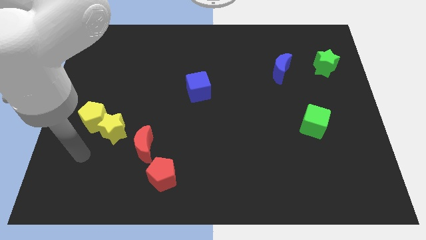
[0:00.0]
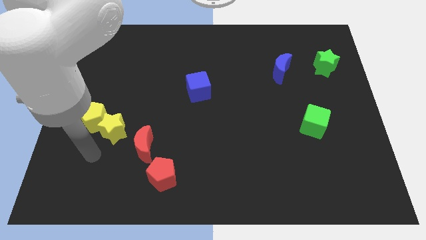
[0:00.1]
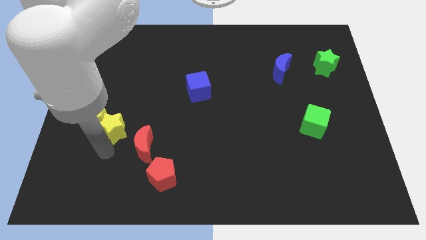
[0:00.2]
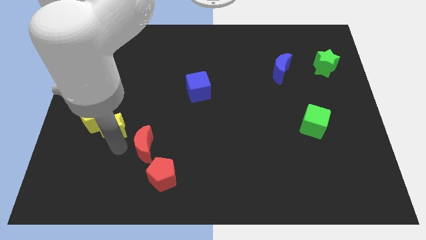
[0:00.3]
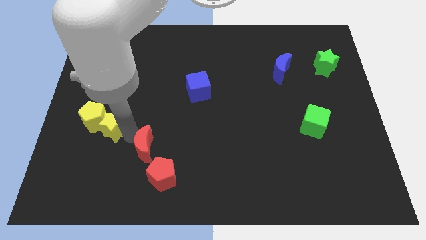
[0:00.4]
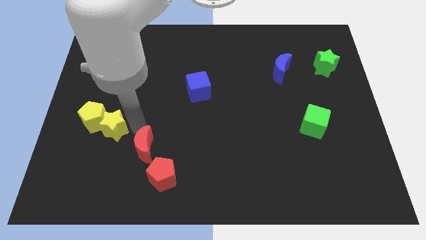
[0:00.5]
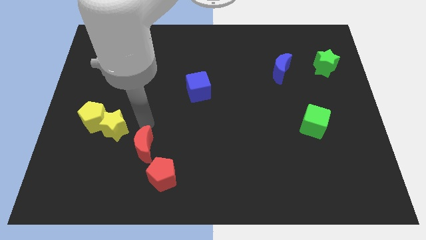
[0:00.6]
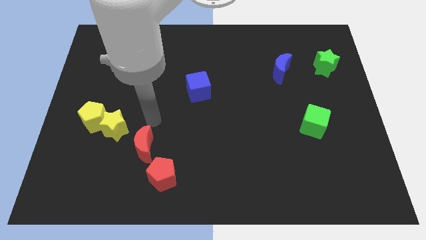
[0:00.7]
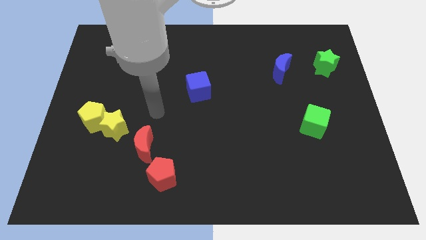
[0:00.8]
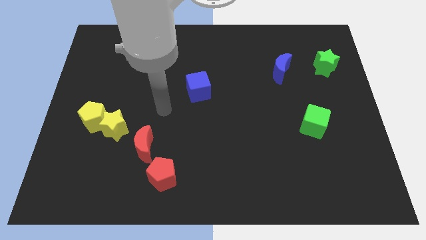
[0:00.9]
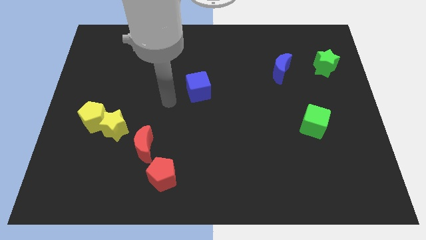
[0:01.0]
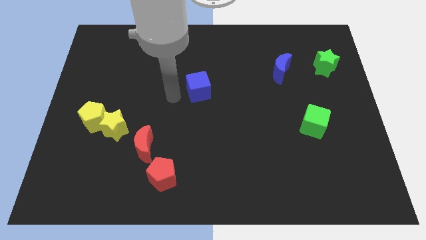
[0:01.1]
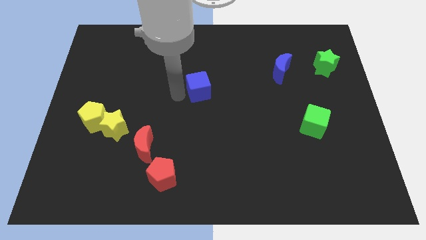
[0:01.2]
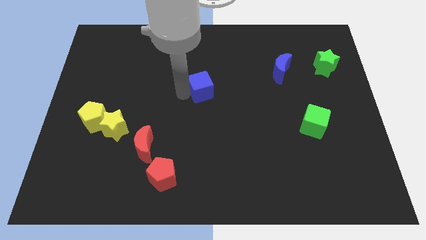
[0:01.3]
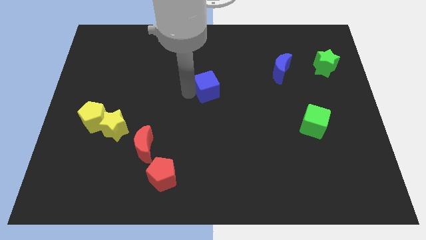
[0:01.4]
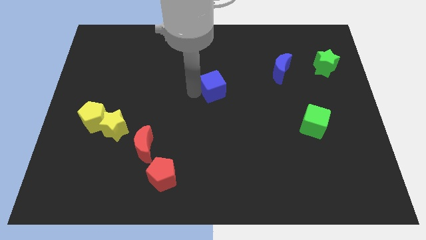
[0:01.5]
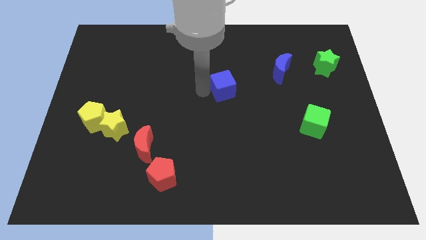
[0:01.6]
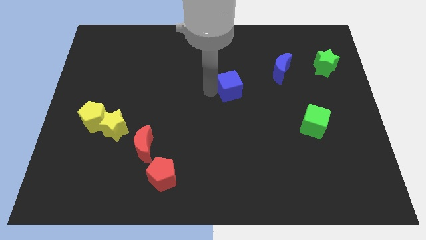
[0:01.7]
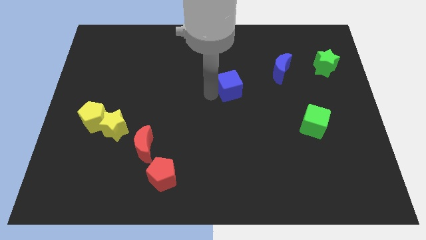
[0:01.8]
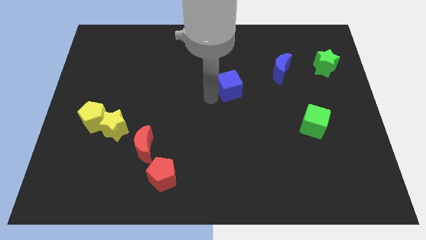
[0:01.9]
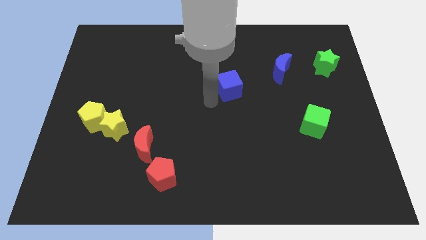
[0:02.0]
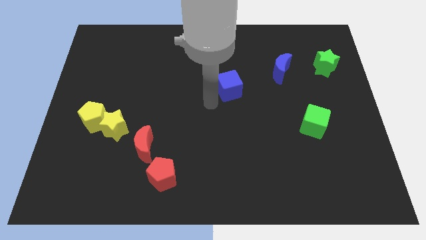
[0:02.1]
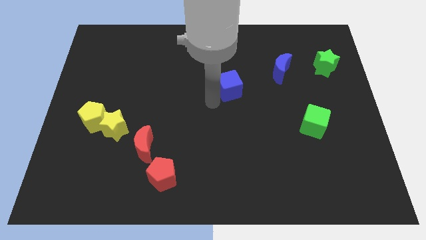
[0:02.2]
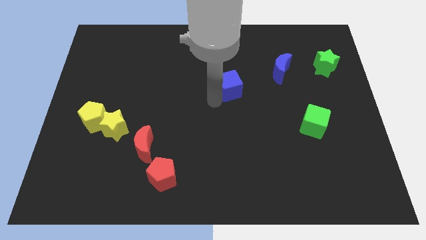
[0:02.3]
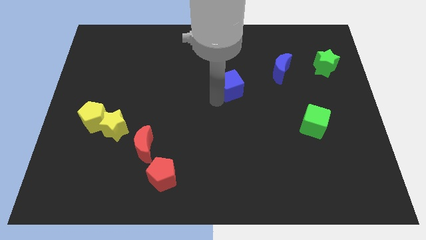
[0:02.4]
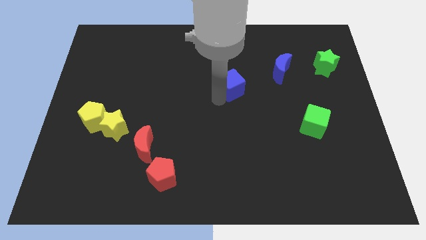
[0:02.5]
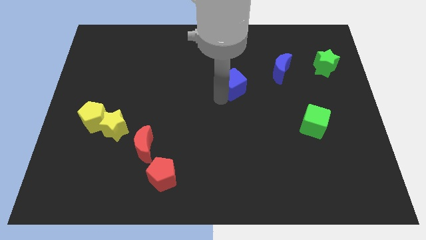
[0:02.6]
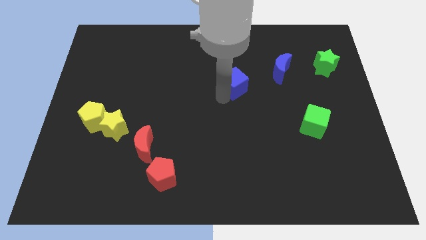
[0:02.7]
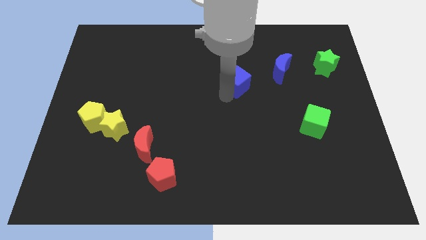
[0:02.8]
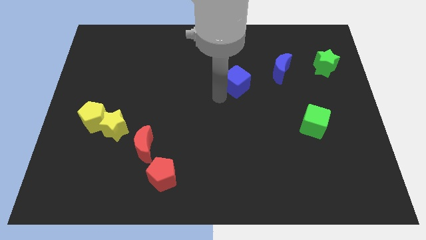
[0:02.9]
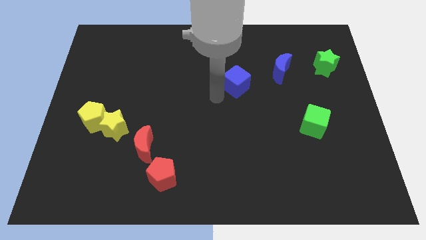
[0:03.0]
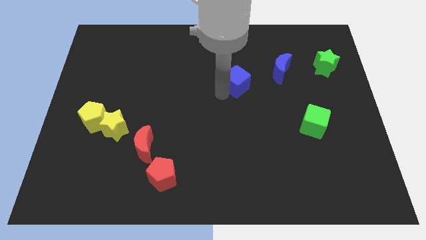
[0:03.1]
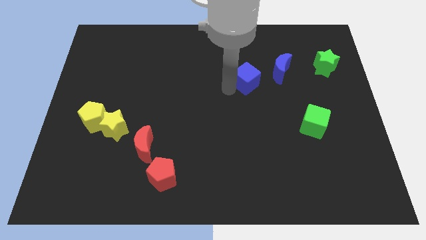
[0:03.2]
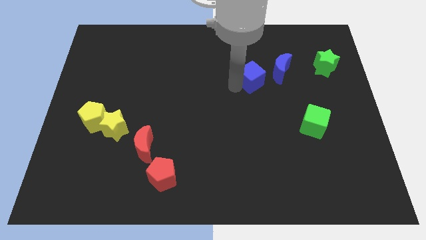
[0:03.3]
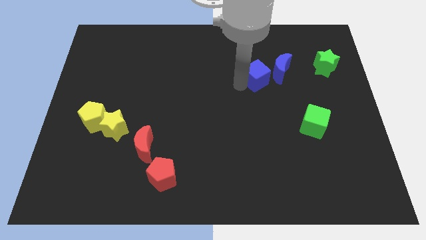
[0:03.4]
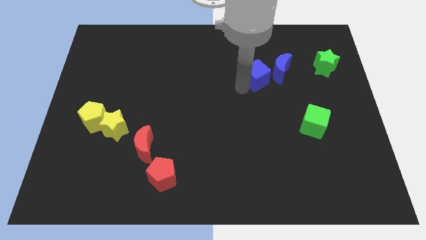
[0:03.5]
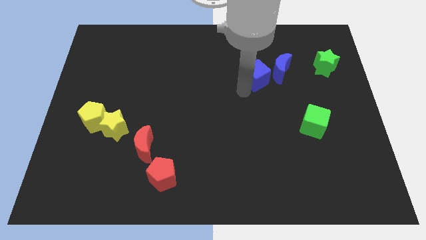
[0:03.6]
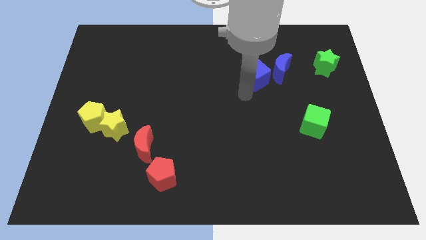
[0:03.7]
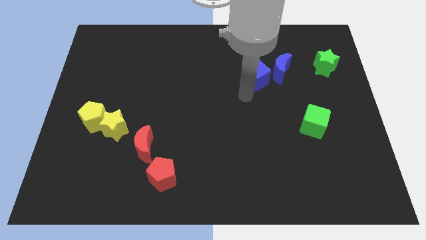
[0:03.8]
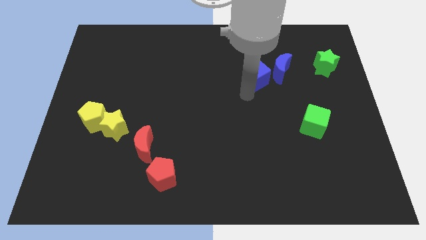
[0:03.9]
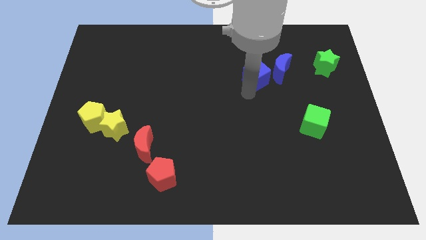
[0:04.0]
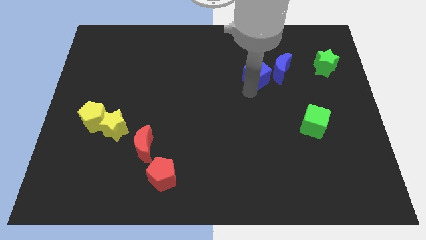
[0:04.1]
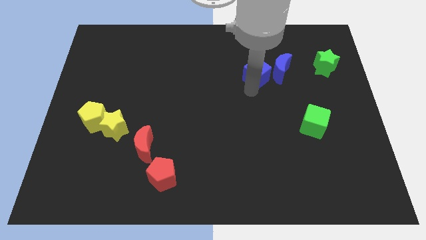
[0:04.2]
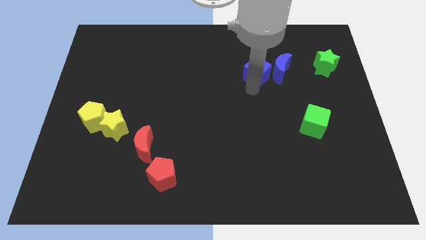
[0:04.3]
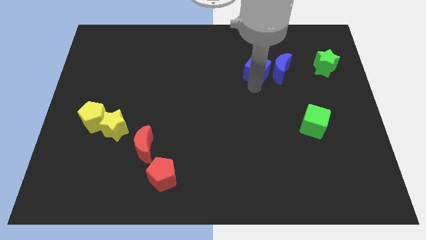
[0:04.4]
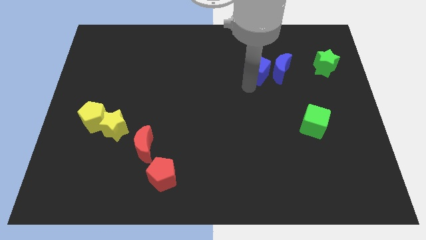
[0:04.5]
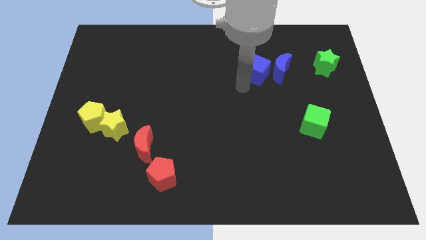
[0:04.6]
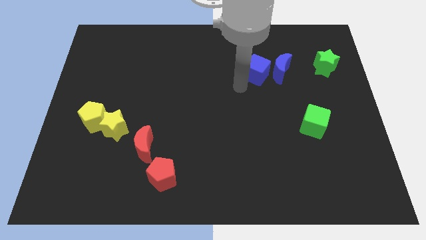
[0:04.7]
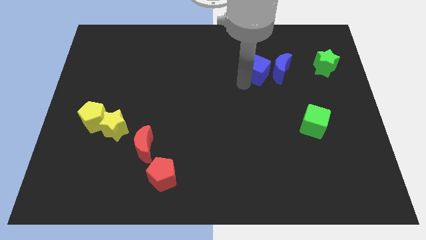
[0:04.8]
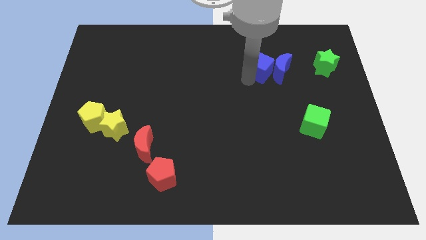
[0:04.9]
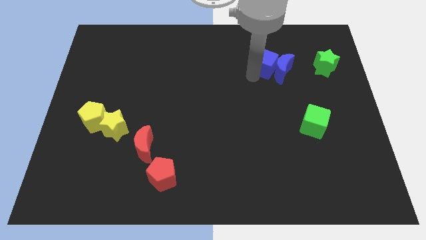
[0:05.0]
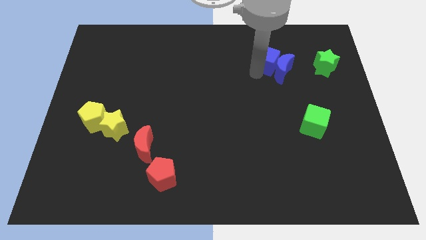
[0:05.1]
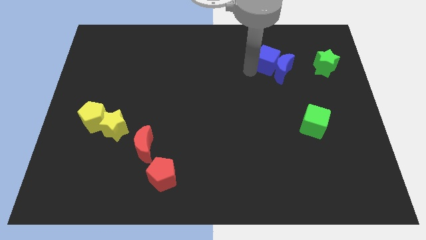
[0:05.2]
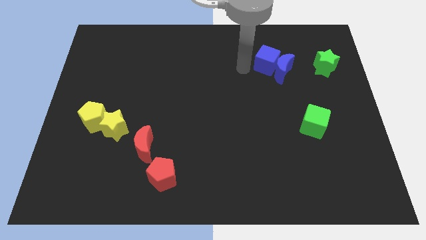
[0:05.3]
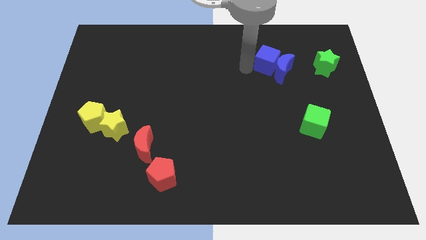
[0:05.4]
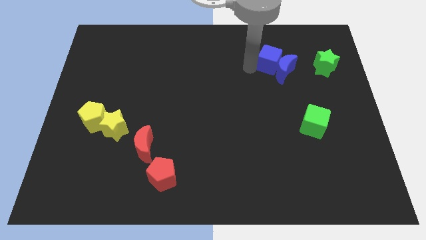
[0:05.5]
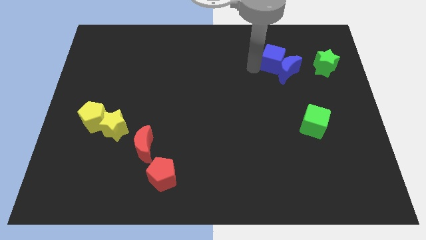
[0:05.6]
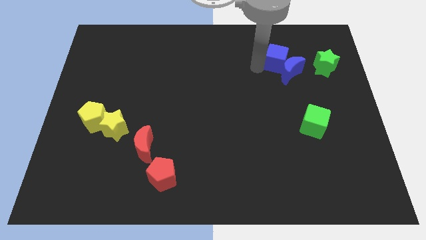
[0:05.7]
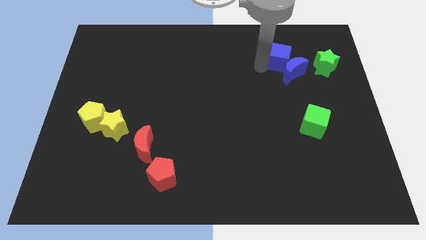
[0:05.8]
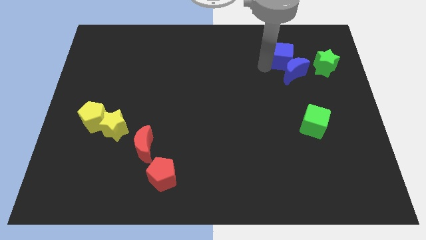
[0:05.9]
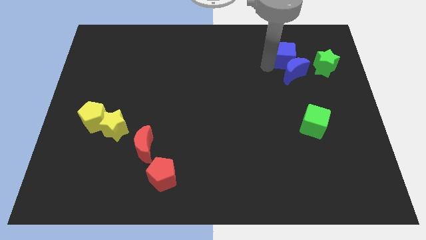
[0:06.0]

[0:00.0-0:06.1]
push the blue cube diagonally up and to the right of the blue moon

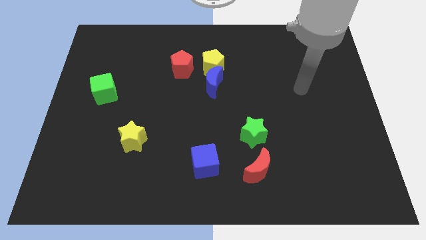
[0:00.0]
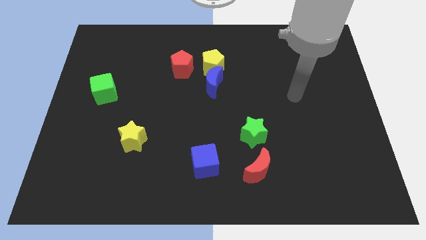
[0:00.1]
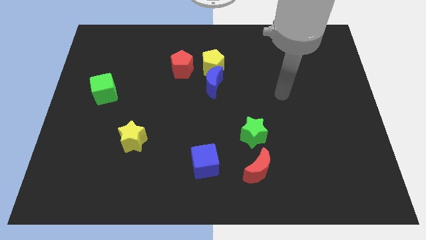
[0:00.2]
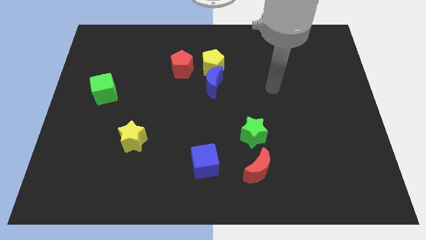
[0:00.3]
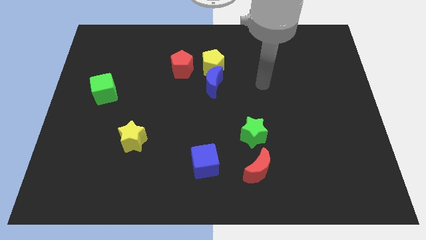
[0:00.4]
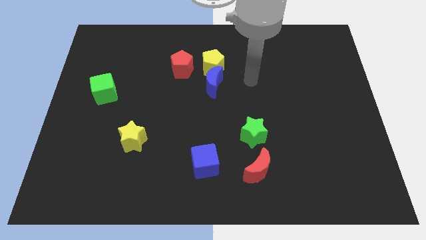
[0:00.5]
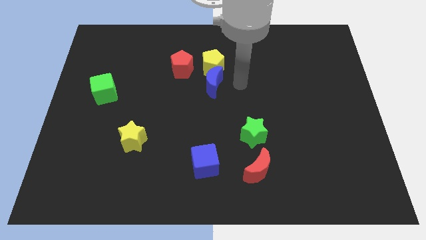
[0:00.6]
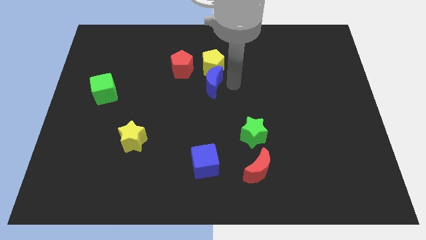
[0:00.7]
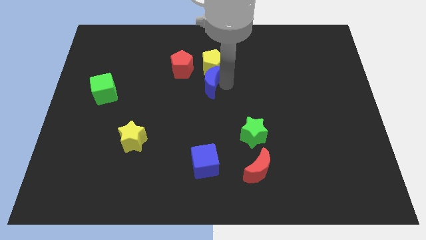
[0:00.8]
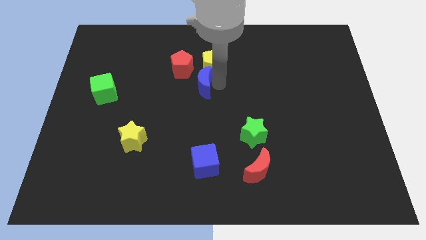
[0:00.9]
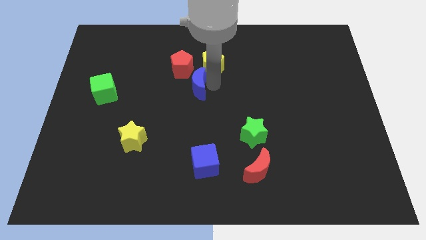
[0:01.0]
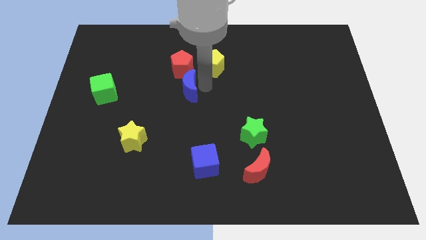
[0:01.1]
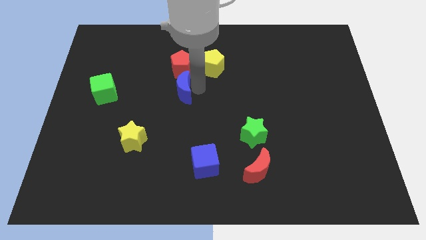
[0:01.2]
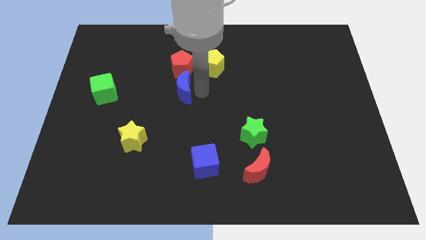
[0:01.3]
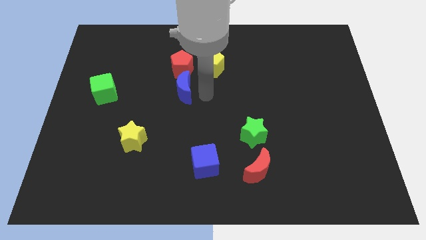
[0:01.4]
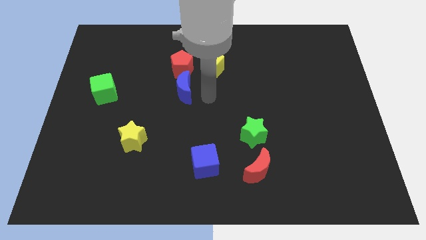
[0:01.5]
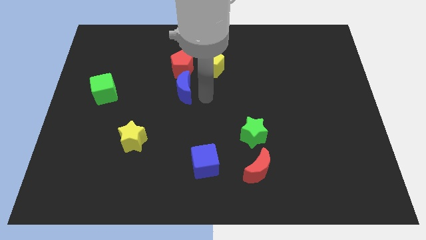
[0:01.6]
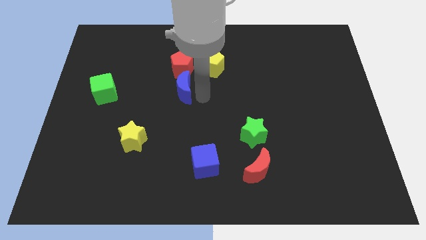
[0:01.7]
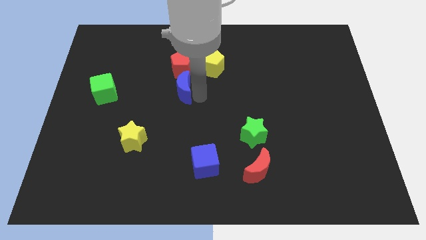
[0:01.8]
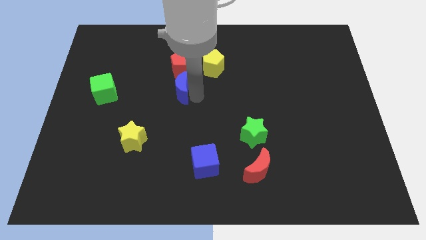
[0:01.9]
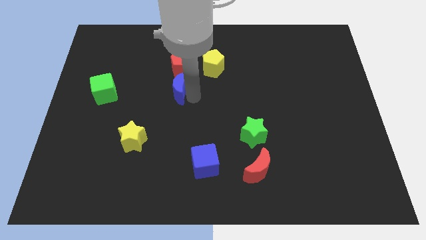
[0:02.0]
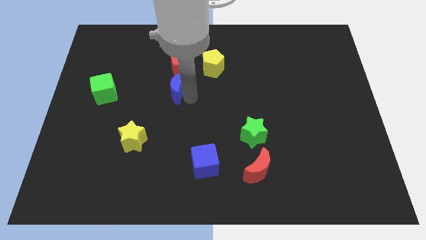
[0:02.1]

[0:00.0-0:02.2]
push the blue moon diagonally down and to the left of the red pentagon
